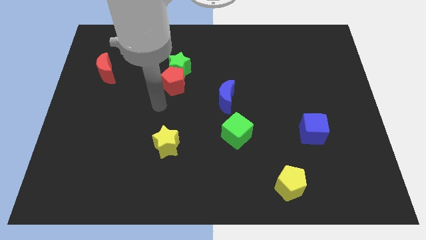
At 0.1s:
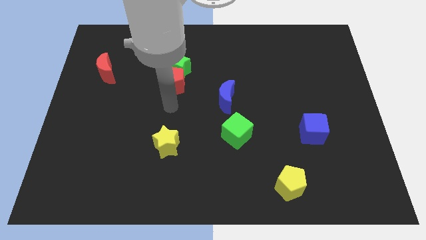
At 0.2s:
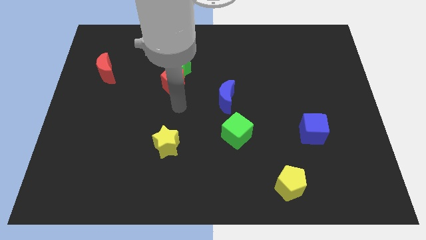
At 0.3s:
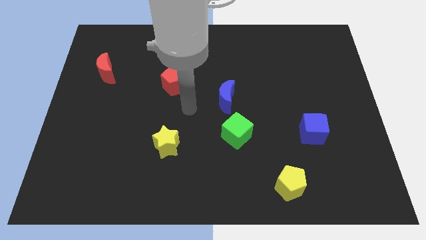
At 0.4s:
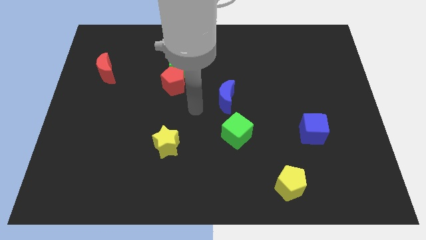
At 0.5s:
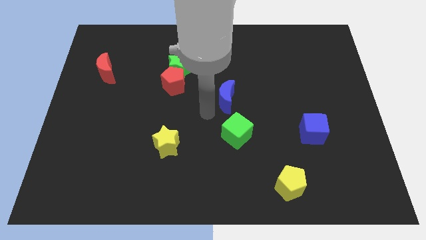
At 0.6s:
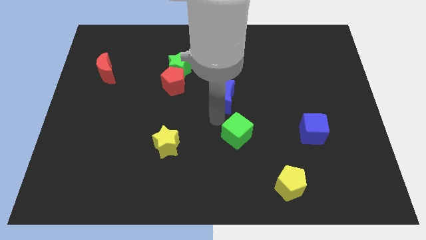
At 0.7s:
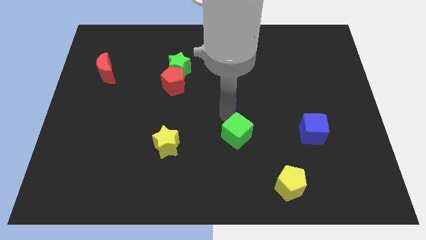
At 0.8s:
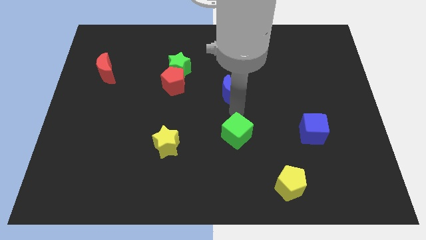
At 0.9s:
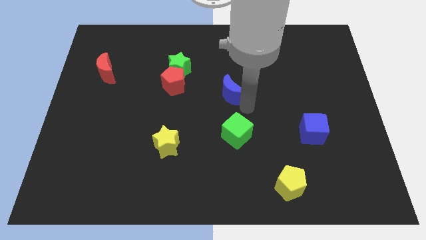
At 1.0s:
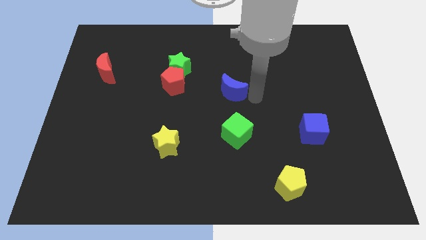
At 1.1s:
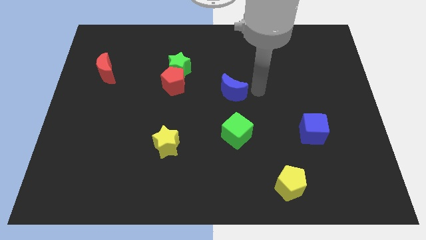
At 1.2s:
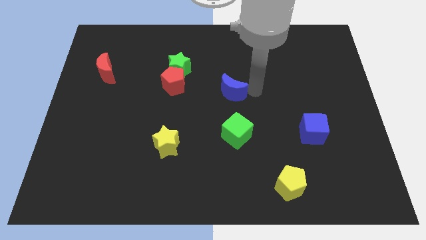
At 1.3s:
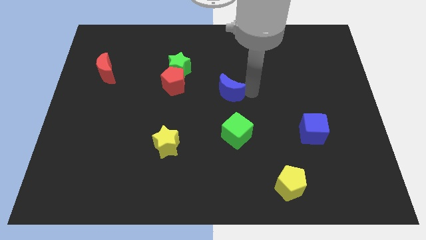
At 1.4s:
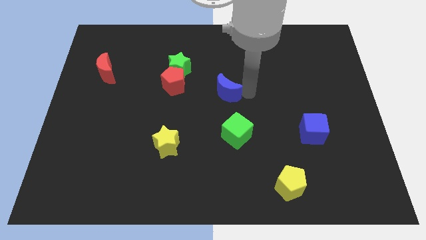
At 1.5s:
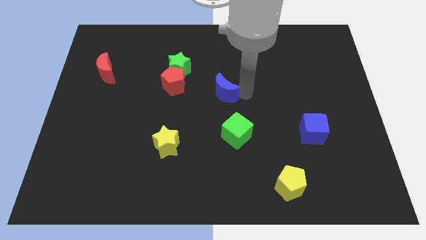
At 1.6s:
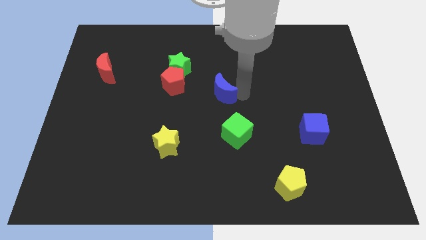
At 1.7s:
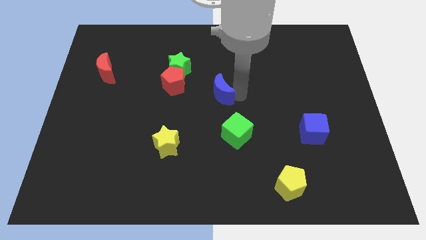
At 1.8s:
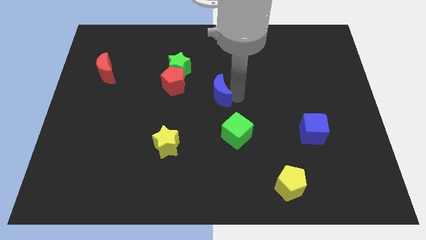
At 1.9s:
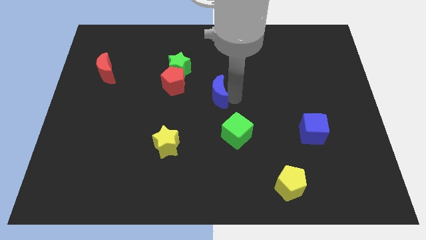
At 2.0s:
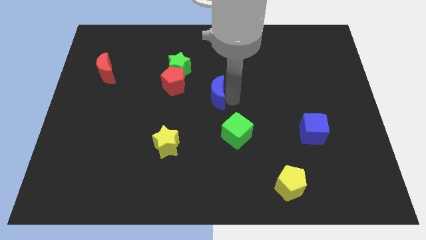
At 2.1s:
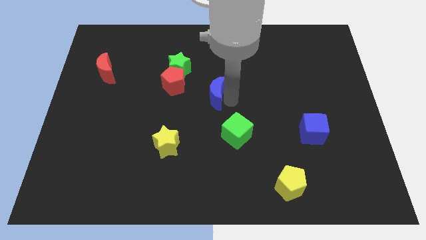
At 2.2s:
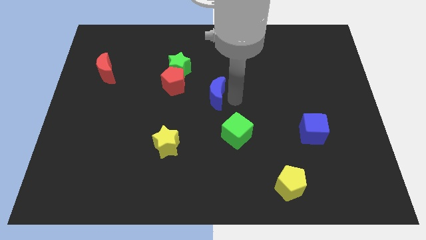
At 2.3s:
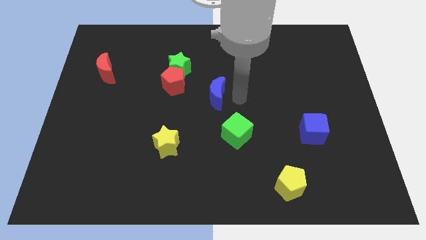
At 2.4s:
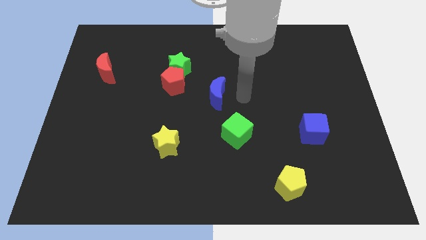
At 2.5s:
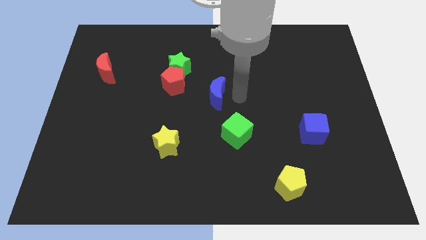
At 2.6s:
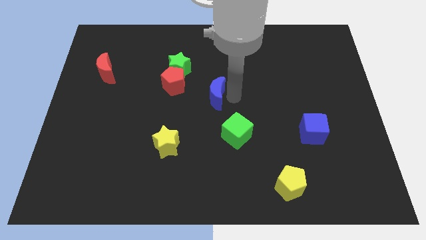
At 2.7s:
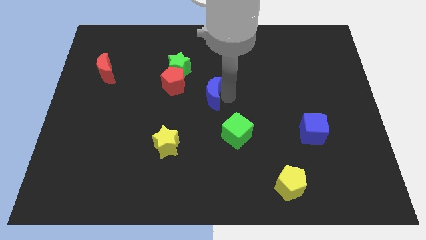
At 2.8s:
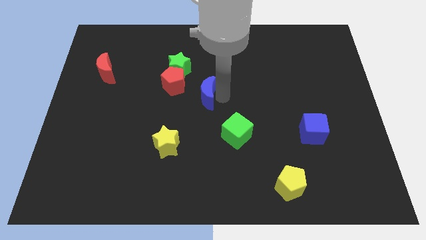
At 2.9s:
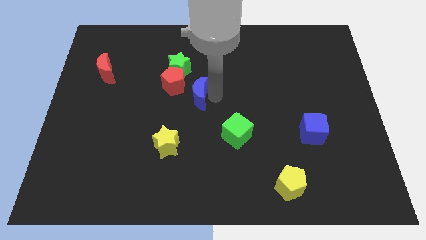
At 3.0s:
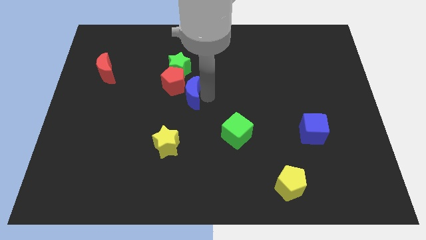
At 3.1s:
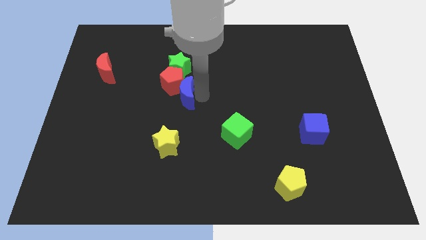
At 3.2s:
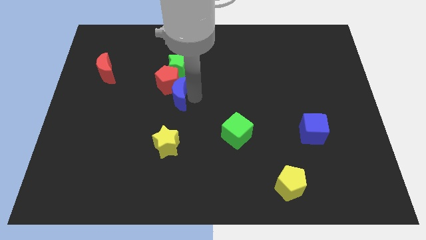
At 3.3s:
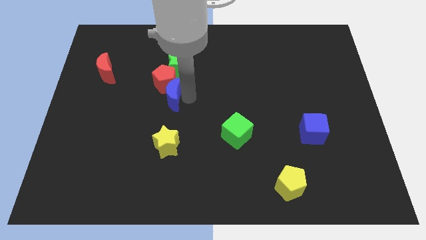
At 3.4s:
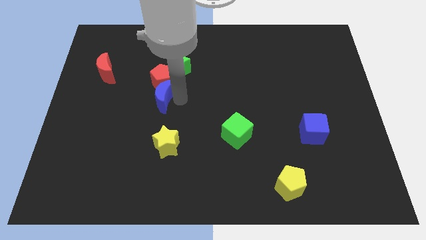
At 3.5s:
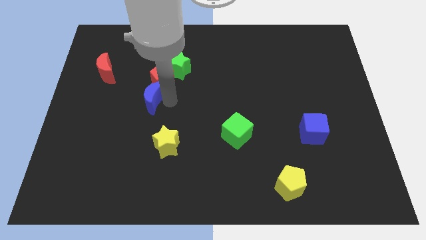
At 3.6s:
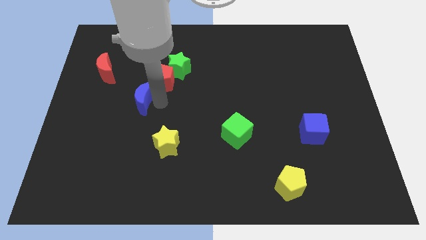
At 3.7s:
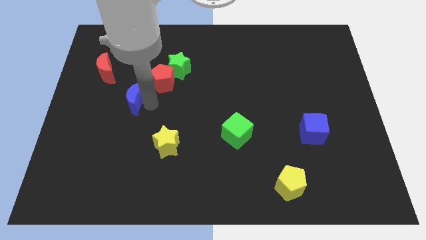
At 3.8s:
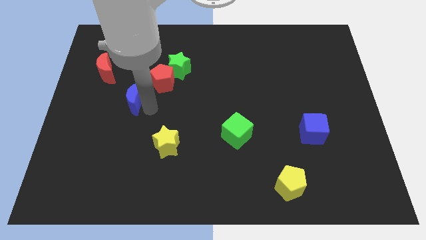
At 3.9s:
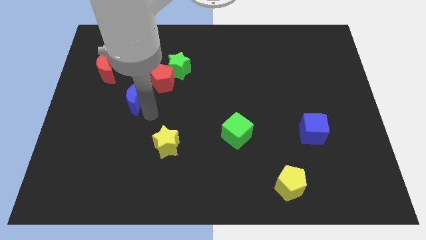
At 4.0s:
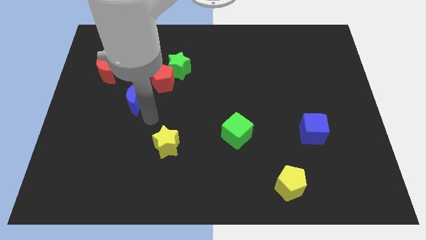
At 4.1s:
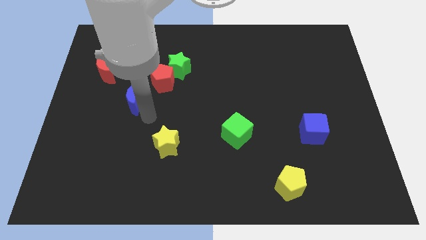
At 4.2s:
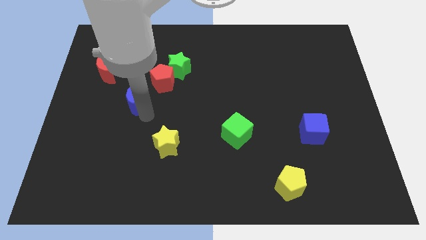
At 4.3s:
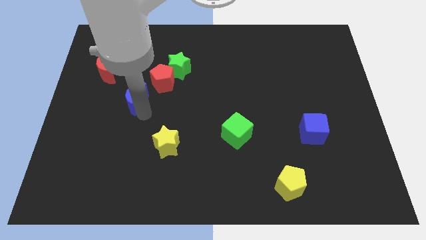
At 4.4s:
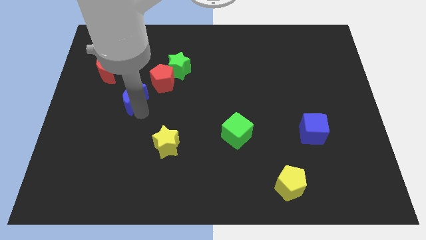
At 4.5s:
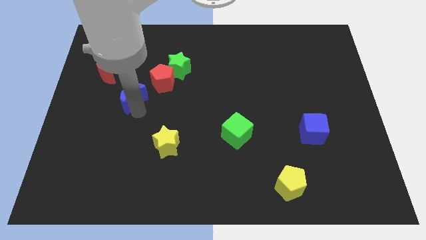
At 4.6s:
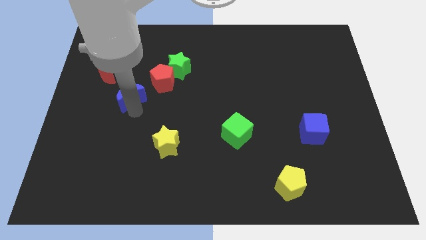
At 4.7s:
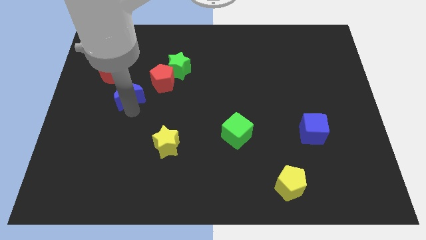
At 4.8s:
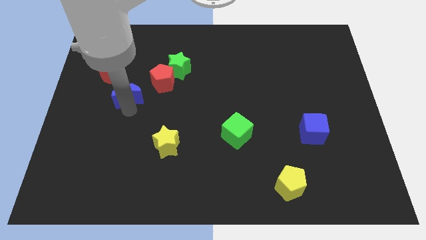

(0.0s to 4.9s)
move the blue moon to the left side of the red pentagon

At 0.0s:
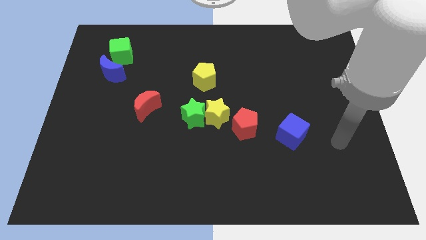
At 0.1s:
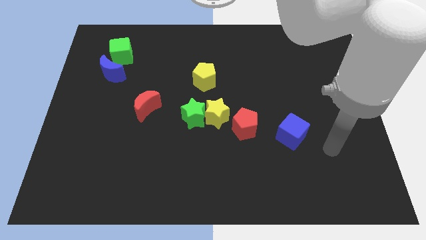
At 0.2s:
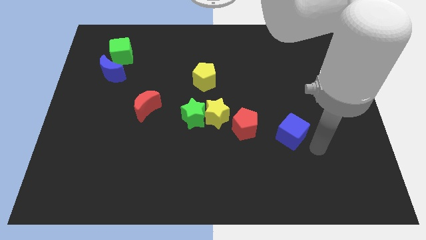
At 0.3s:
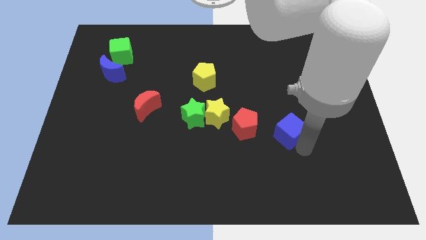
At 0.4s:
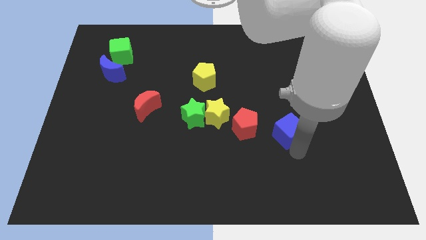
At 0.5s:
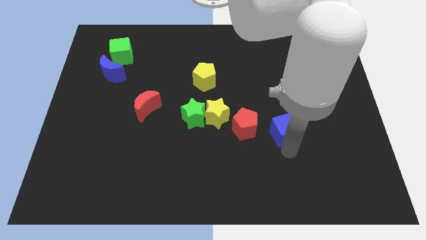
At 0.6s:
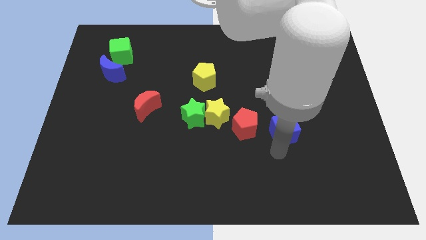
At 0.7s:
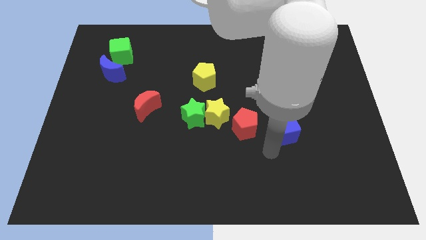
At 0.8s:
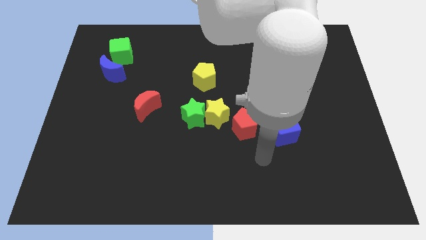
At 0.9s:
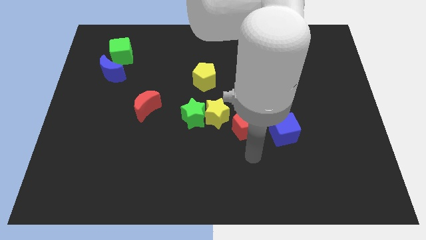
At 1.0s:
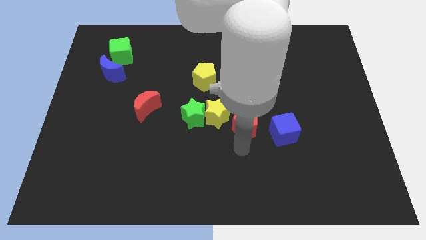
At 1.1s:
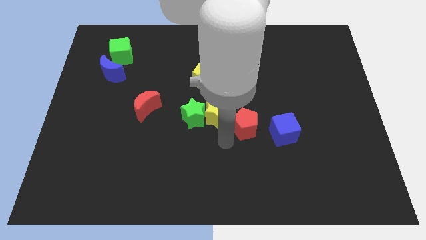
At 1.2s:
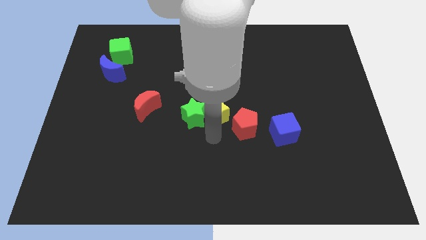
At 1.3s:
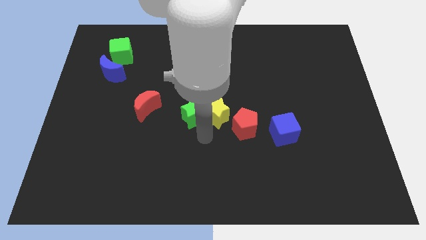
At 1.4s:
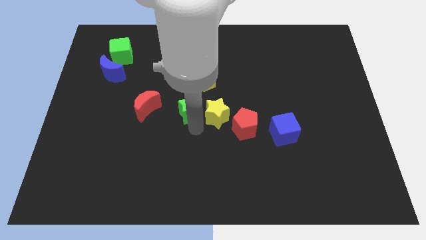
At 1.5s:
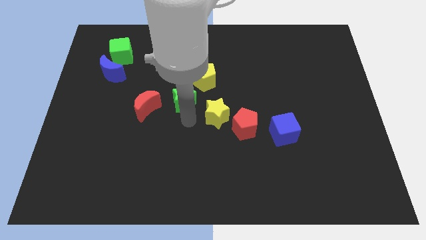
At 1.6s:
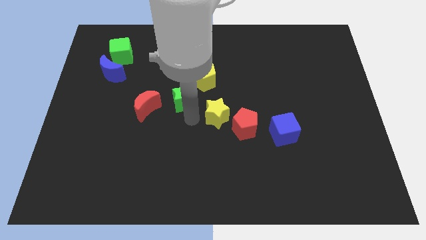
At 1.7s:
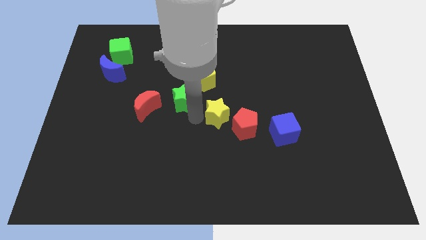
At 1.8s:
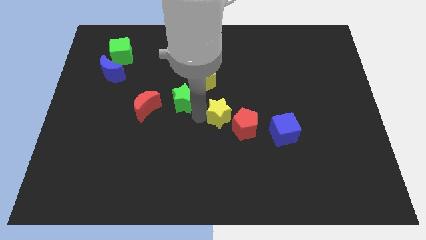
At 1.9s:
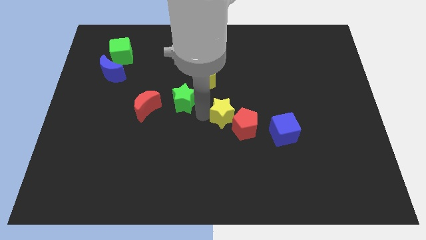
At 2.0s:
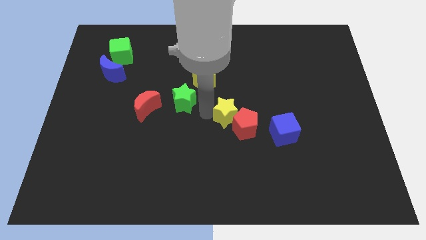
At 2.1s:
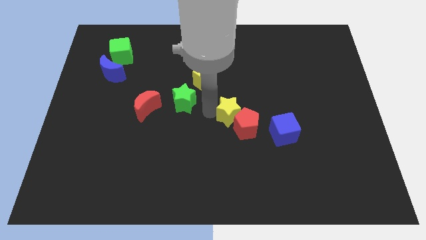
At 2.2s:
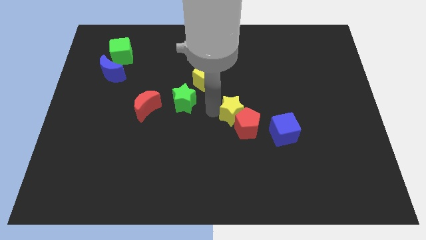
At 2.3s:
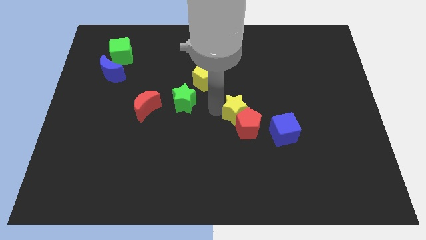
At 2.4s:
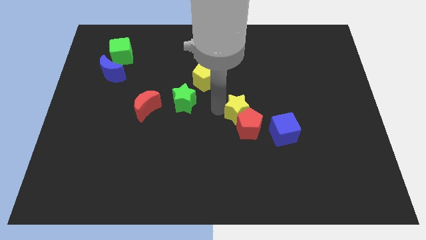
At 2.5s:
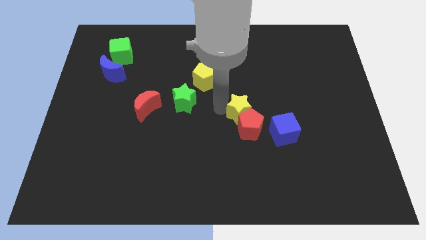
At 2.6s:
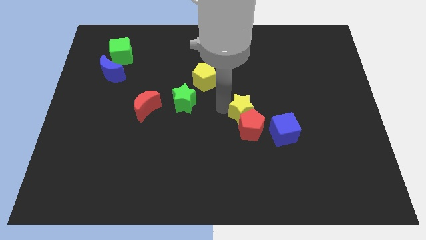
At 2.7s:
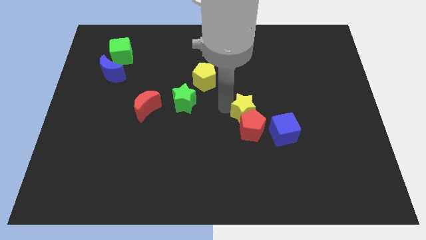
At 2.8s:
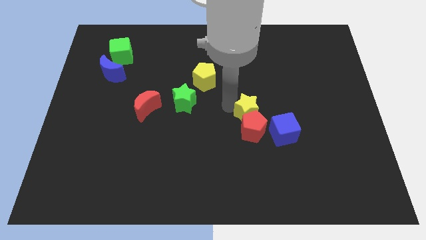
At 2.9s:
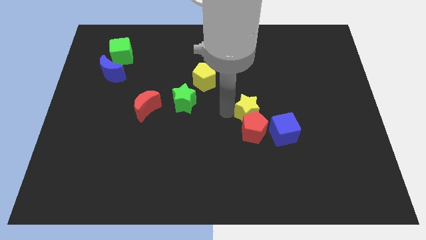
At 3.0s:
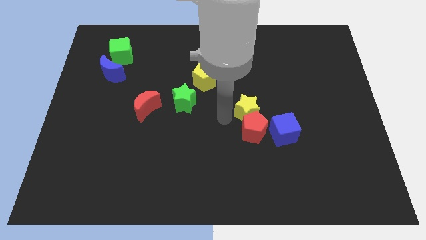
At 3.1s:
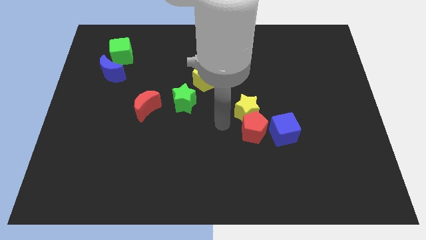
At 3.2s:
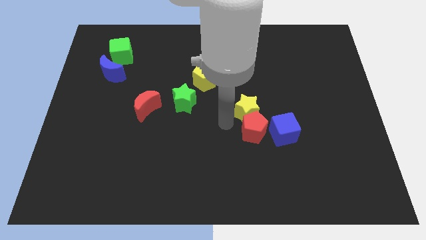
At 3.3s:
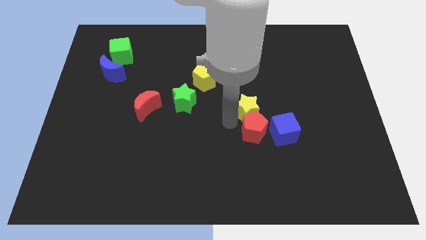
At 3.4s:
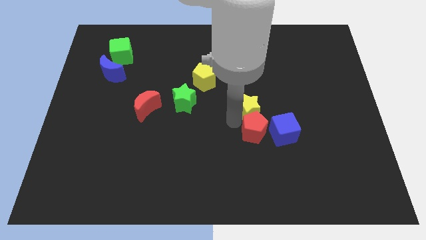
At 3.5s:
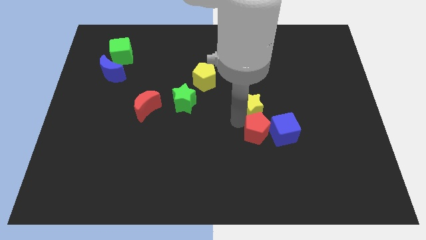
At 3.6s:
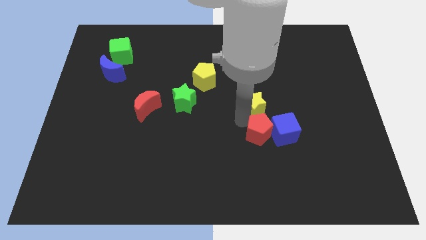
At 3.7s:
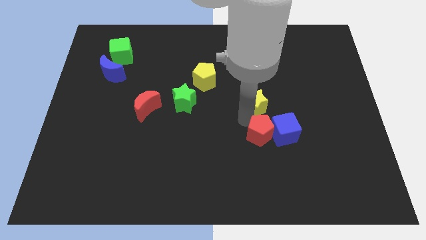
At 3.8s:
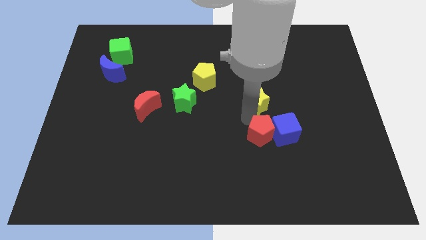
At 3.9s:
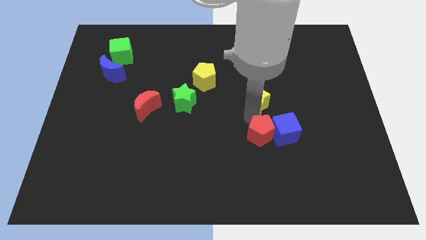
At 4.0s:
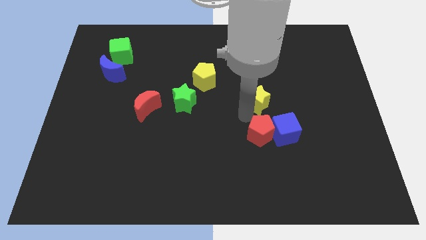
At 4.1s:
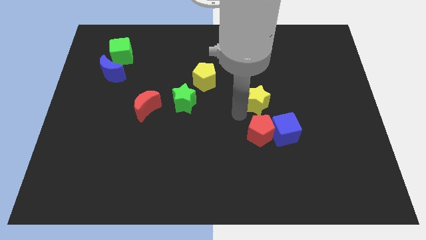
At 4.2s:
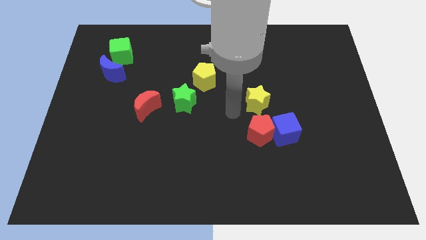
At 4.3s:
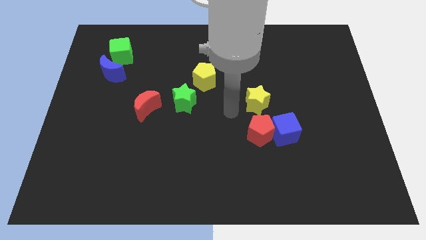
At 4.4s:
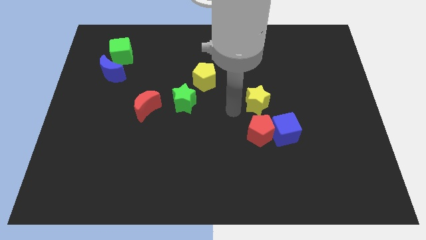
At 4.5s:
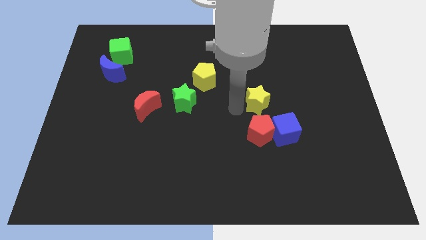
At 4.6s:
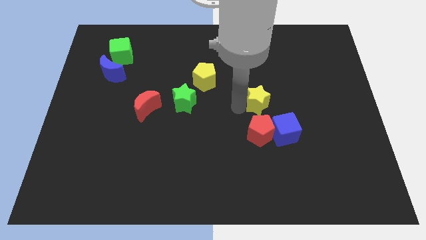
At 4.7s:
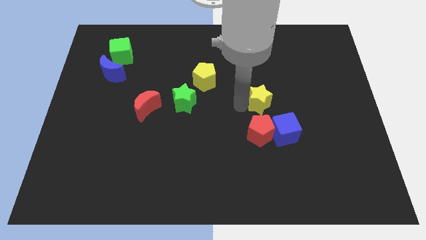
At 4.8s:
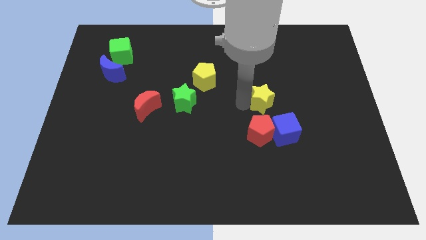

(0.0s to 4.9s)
move the yellow star to the top of the blue cube
